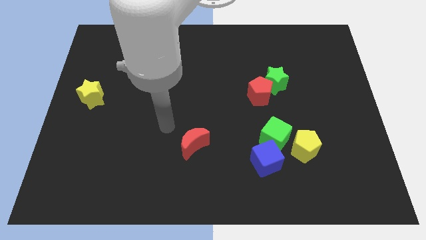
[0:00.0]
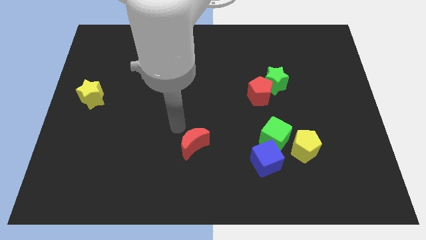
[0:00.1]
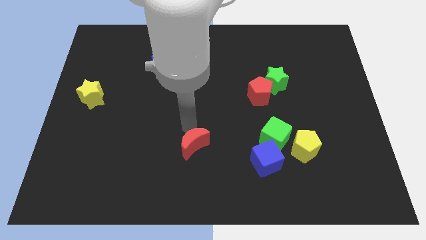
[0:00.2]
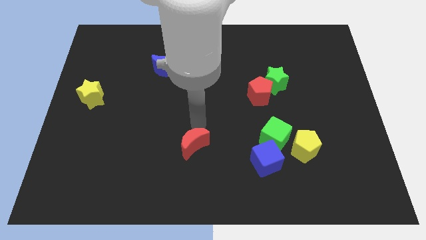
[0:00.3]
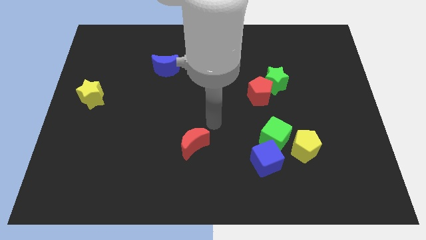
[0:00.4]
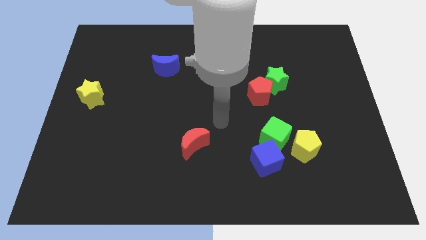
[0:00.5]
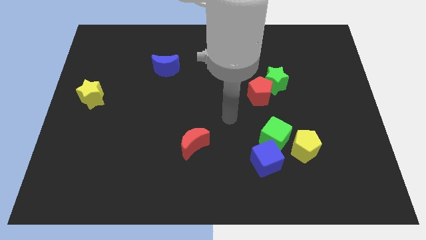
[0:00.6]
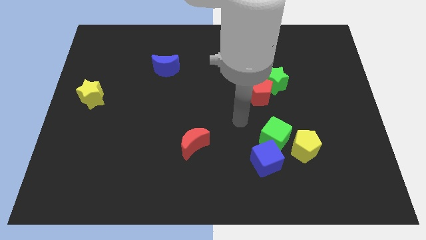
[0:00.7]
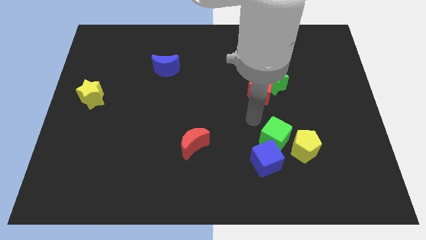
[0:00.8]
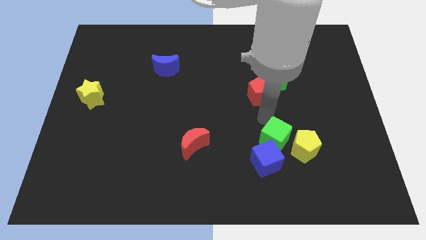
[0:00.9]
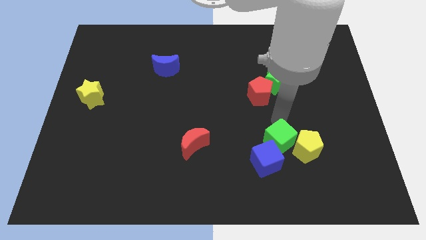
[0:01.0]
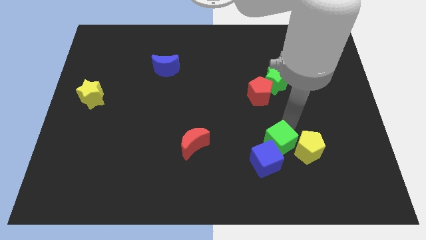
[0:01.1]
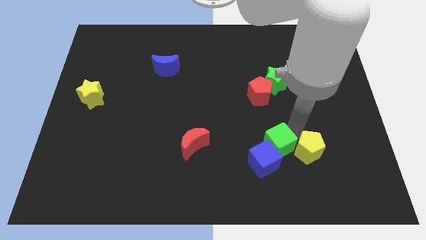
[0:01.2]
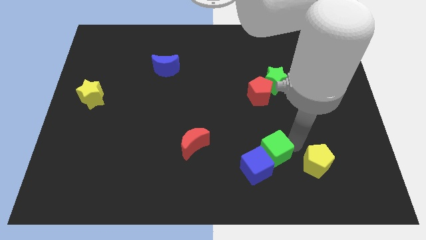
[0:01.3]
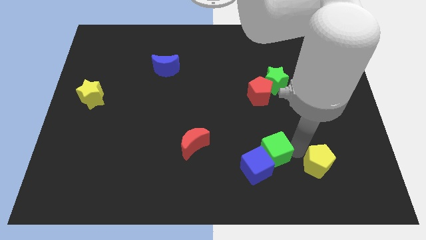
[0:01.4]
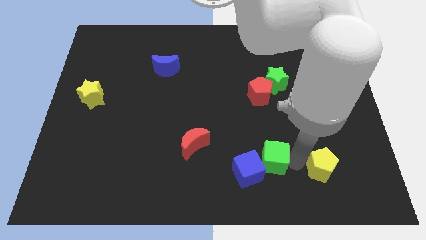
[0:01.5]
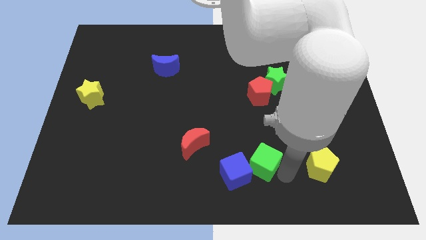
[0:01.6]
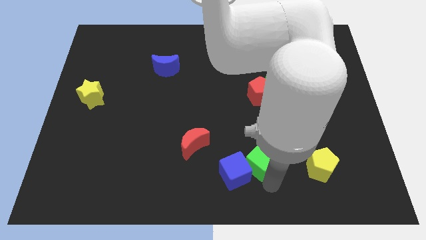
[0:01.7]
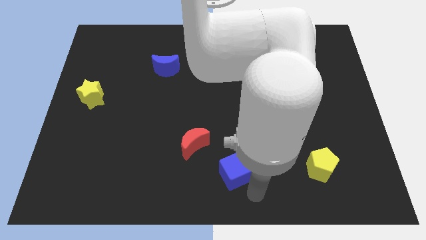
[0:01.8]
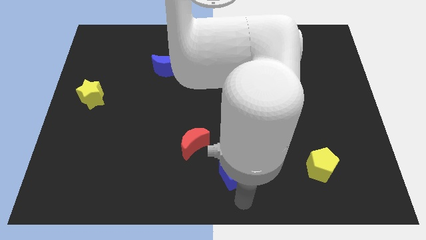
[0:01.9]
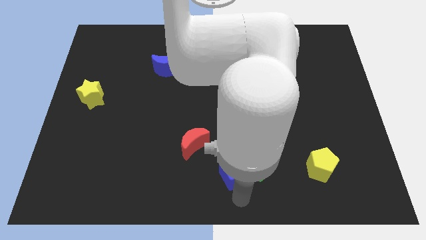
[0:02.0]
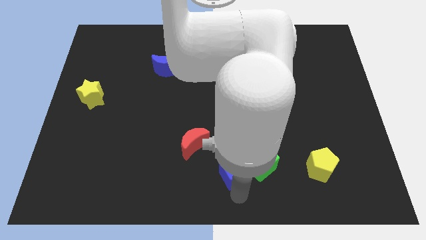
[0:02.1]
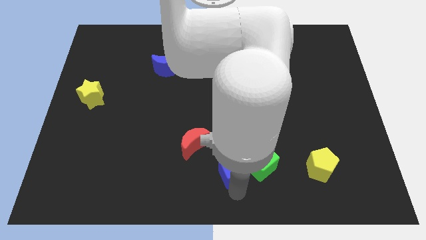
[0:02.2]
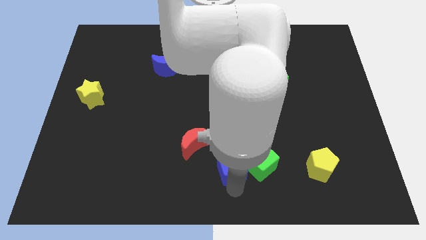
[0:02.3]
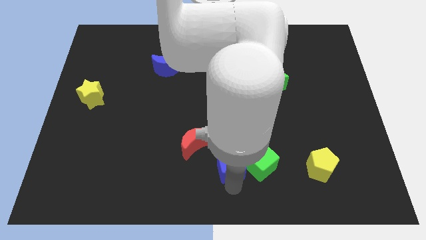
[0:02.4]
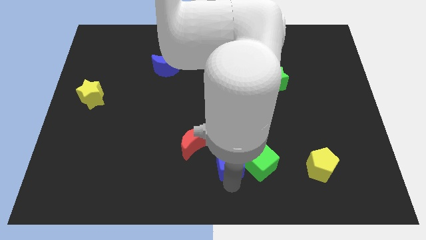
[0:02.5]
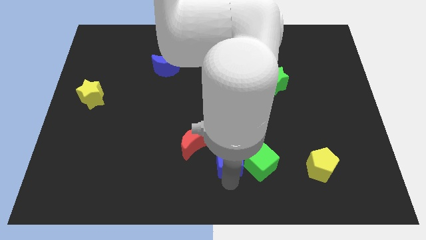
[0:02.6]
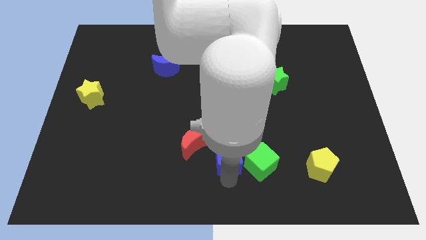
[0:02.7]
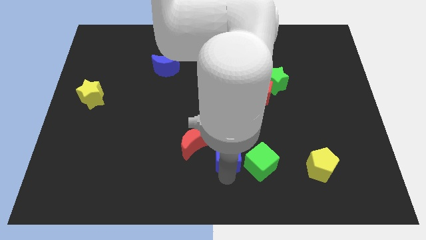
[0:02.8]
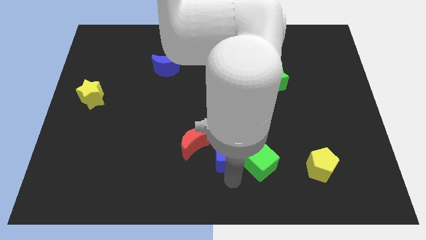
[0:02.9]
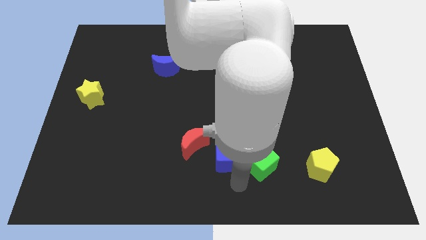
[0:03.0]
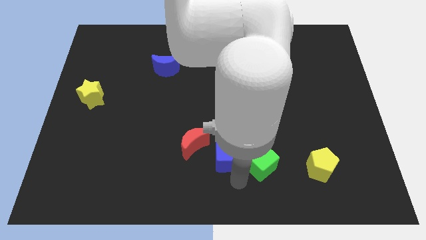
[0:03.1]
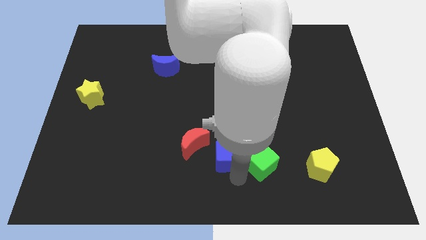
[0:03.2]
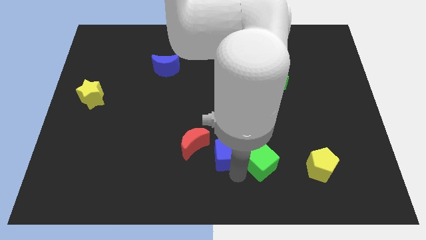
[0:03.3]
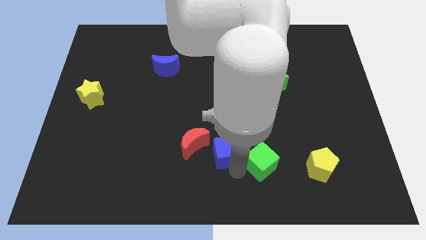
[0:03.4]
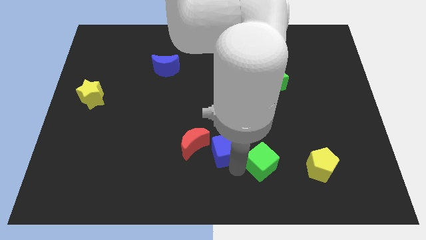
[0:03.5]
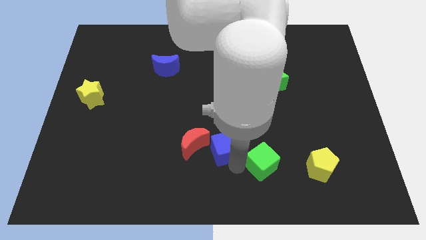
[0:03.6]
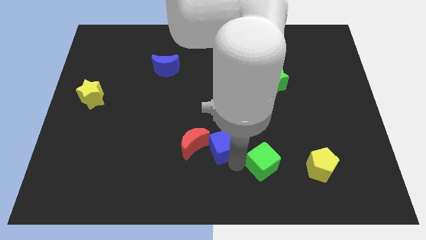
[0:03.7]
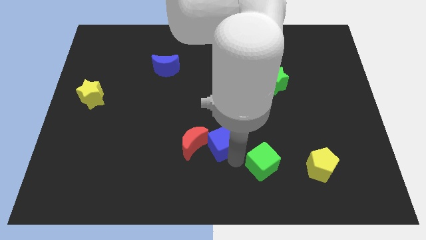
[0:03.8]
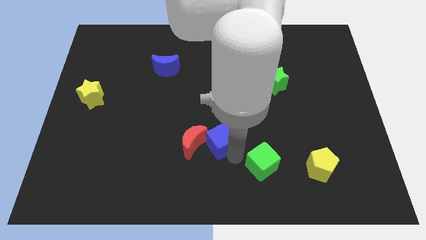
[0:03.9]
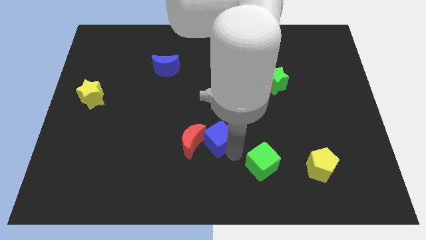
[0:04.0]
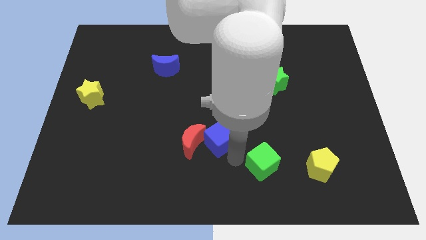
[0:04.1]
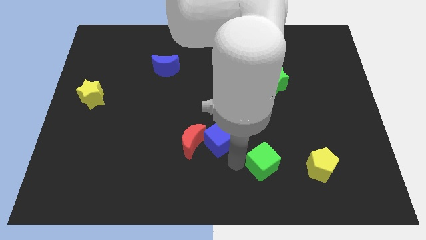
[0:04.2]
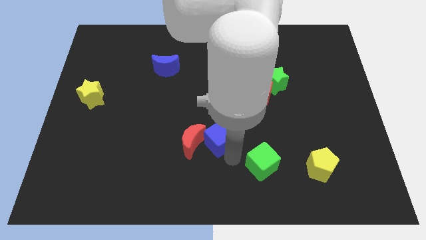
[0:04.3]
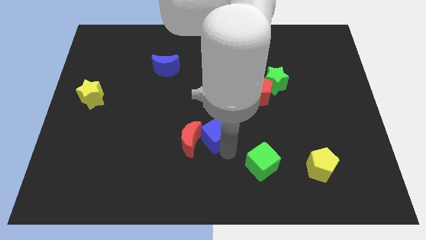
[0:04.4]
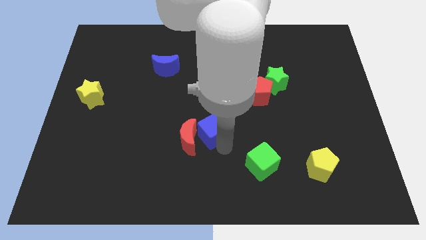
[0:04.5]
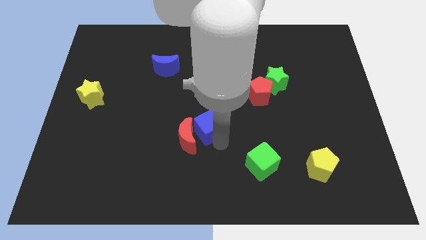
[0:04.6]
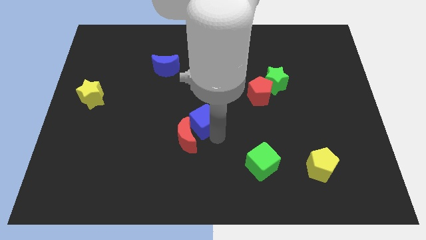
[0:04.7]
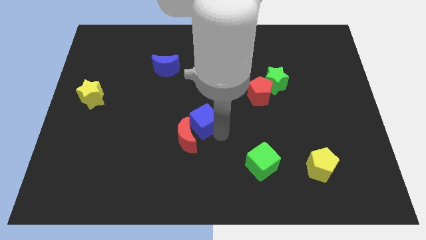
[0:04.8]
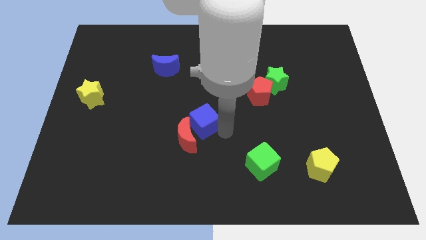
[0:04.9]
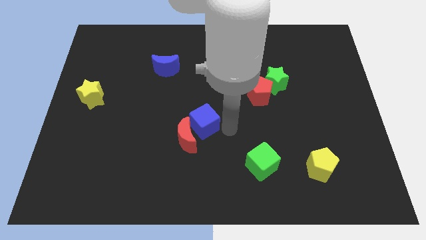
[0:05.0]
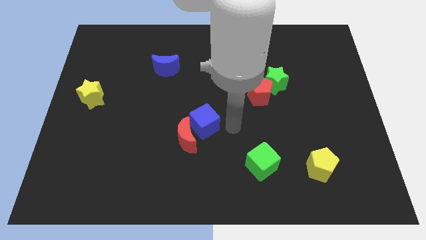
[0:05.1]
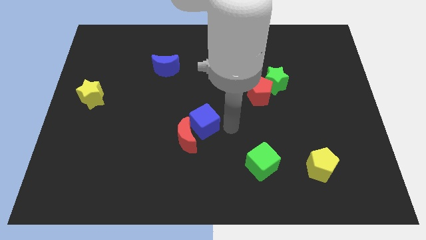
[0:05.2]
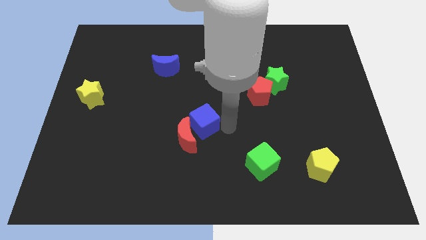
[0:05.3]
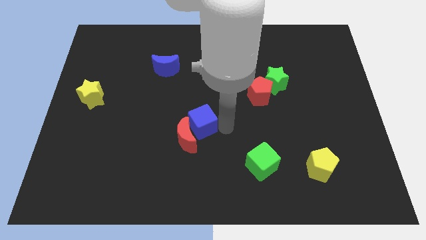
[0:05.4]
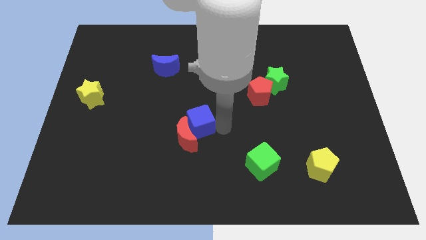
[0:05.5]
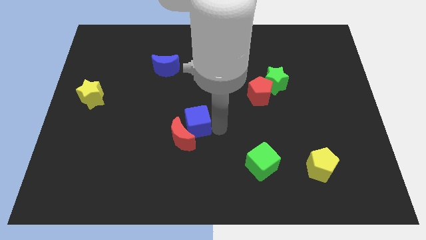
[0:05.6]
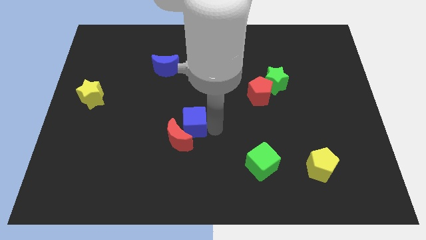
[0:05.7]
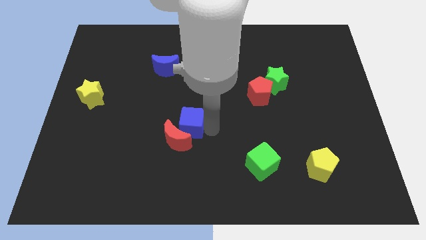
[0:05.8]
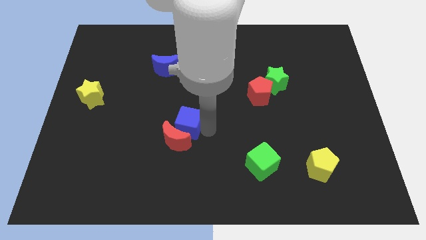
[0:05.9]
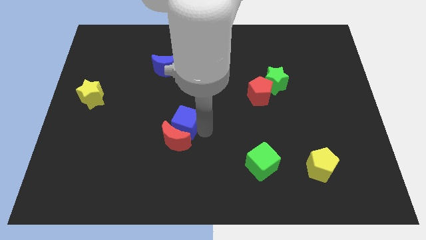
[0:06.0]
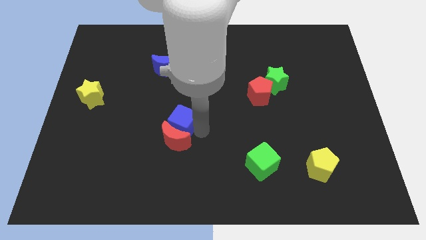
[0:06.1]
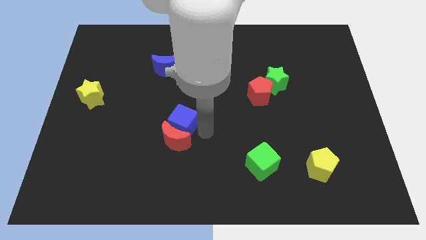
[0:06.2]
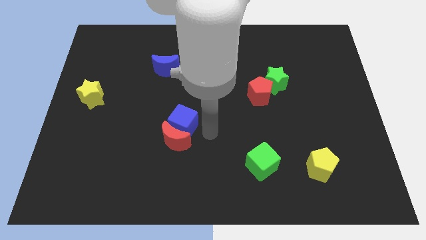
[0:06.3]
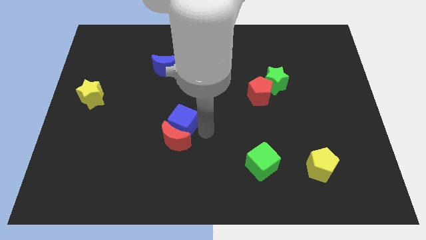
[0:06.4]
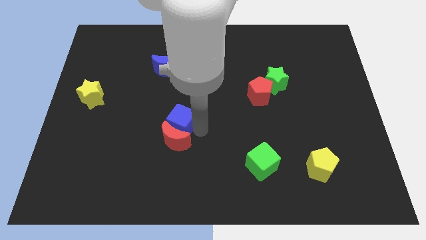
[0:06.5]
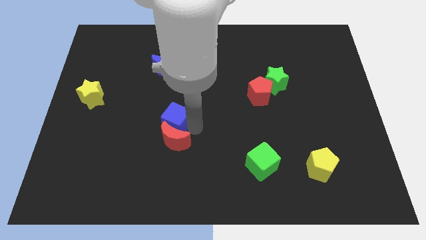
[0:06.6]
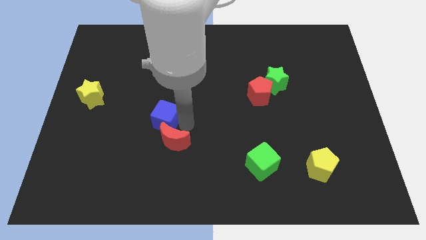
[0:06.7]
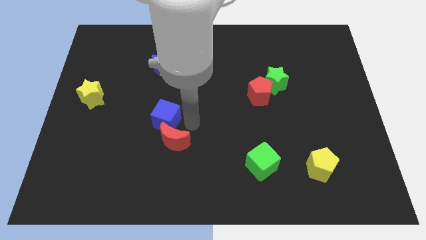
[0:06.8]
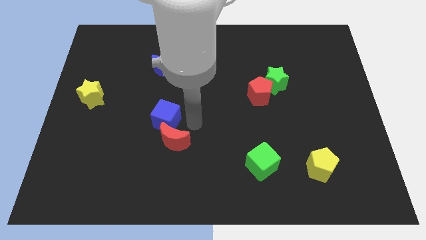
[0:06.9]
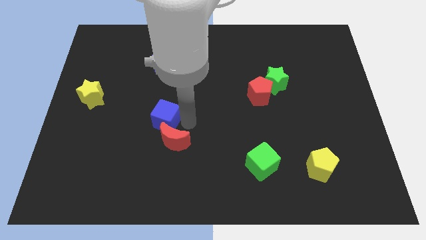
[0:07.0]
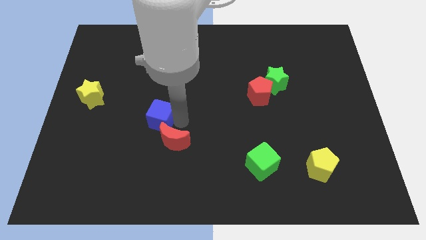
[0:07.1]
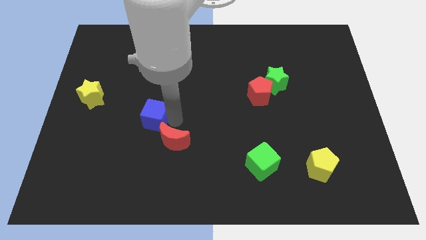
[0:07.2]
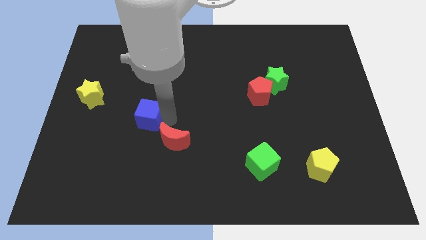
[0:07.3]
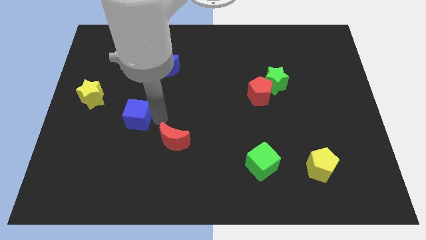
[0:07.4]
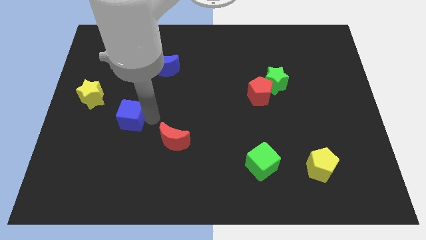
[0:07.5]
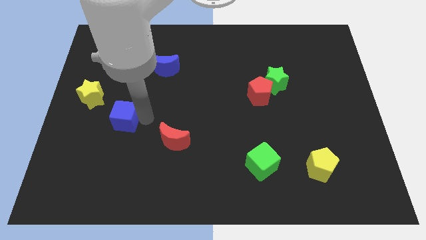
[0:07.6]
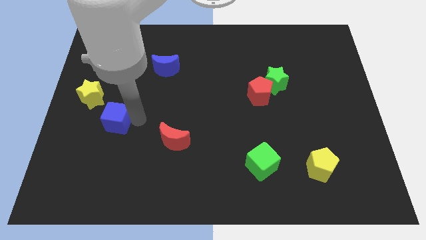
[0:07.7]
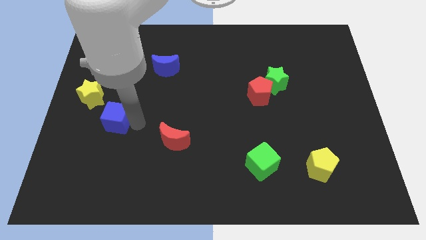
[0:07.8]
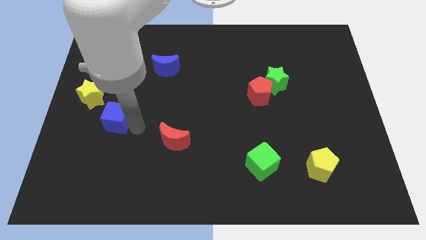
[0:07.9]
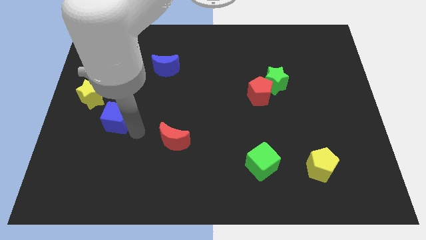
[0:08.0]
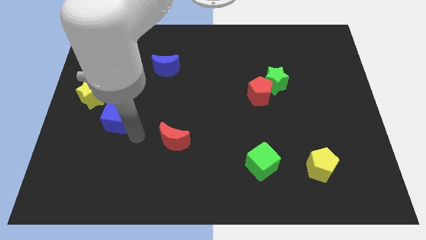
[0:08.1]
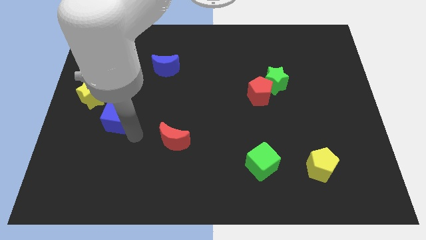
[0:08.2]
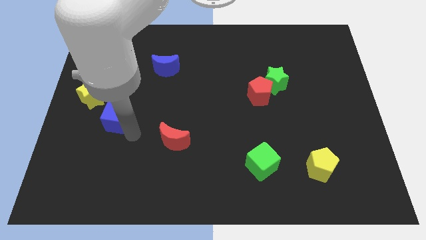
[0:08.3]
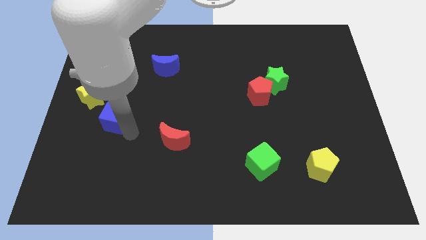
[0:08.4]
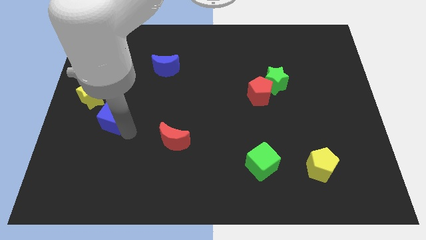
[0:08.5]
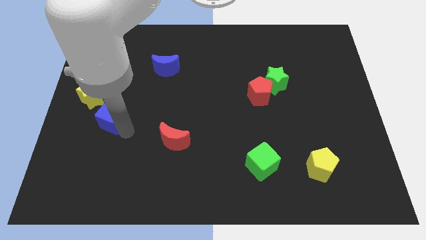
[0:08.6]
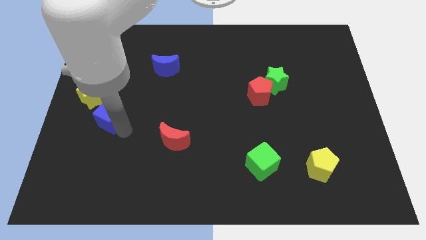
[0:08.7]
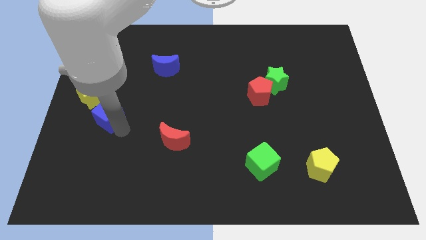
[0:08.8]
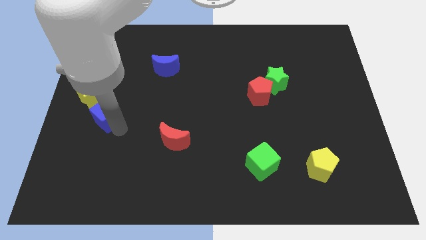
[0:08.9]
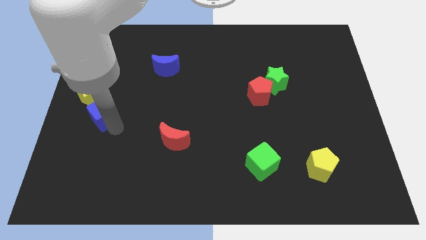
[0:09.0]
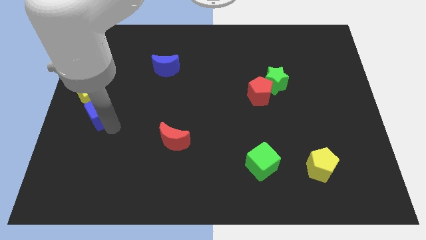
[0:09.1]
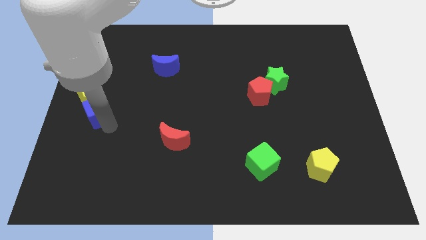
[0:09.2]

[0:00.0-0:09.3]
put the blue cube close to the yellow star
